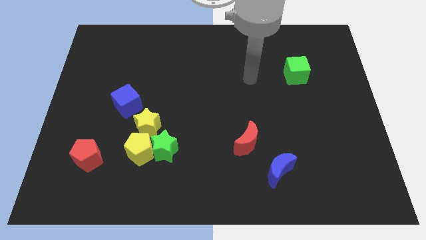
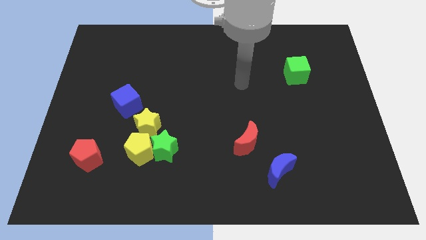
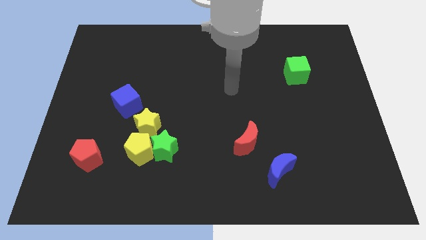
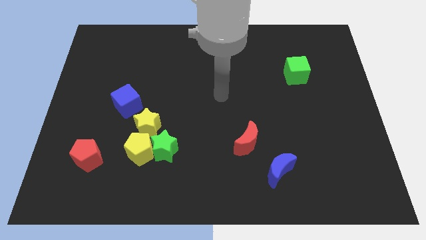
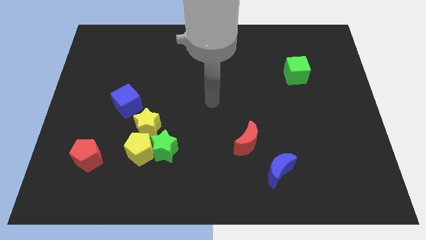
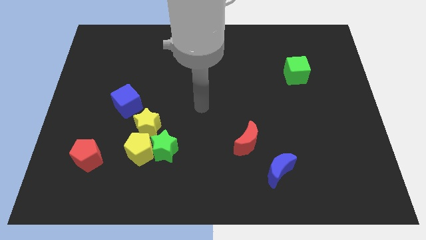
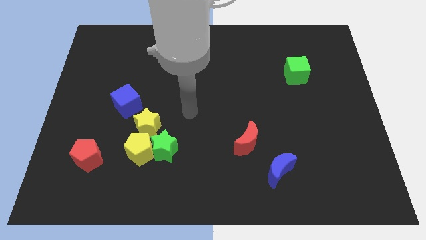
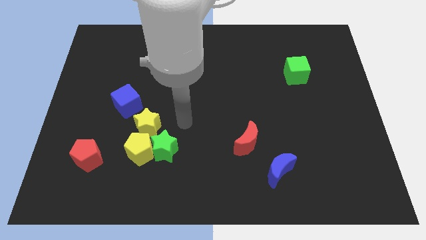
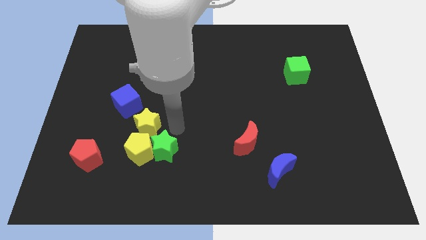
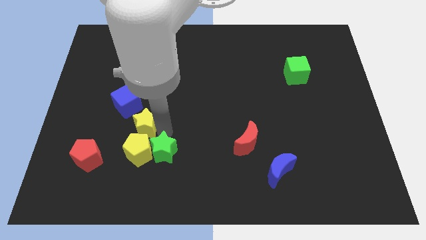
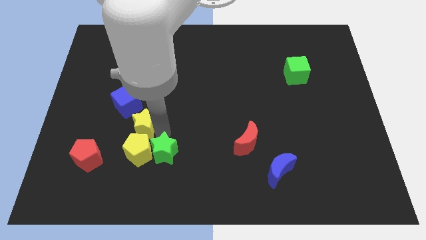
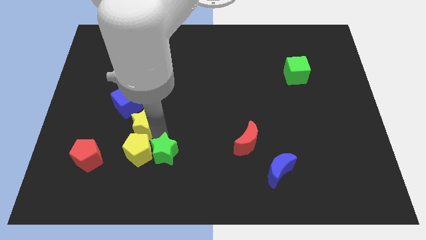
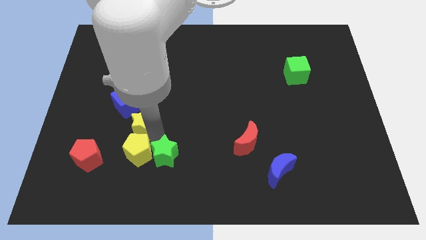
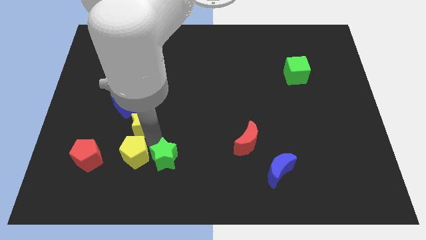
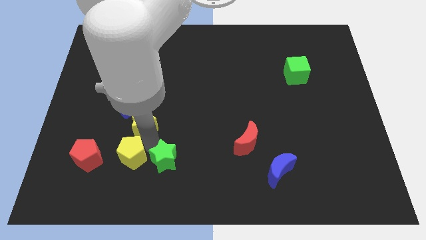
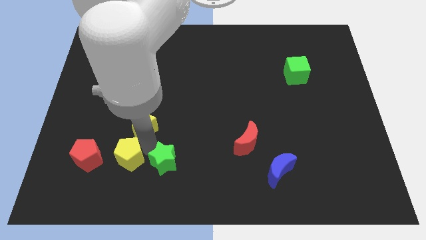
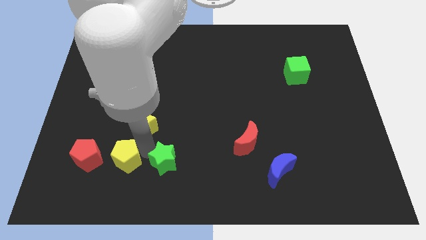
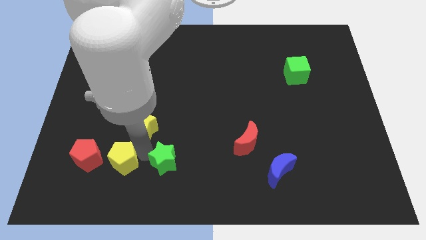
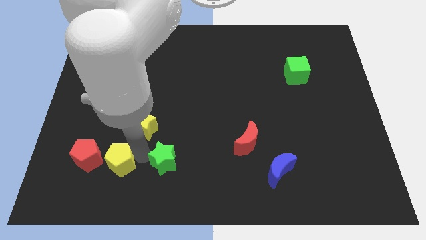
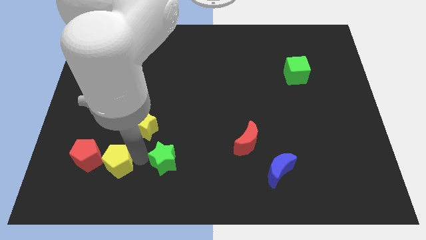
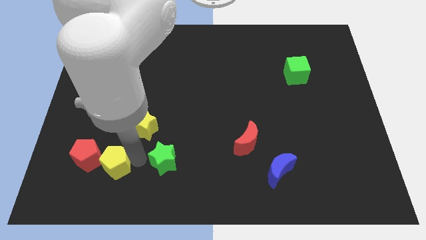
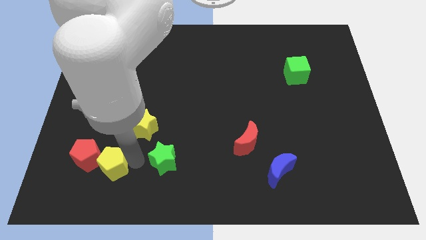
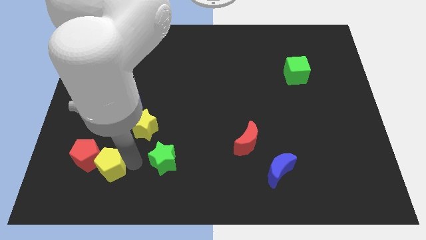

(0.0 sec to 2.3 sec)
pull the yellow pentagon apart from the green star and yellow star

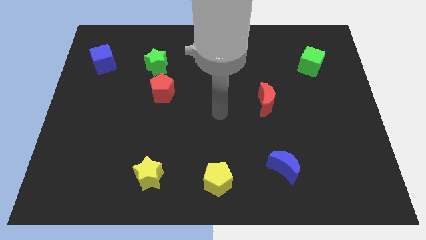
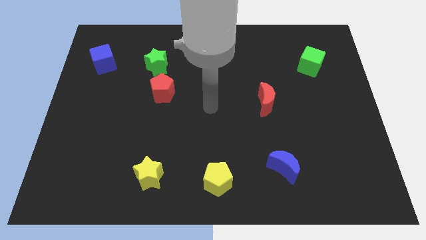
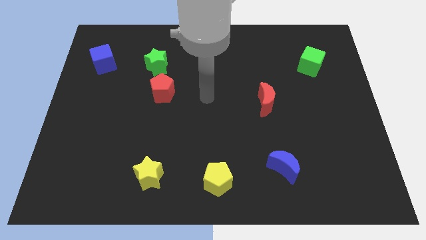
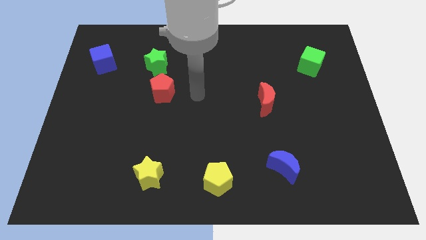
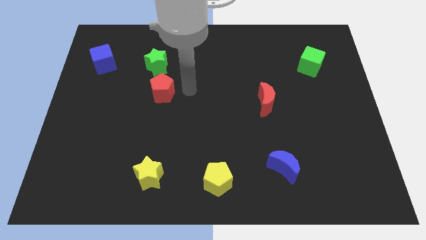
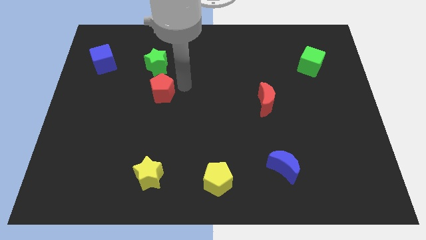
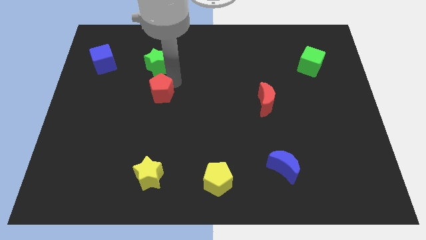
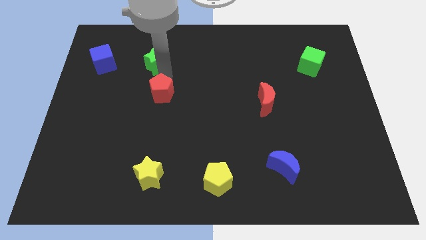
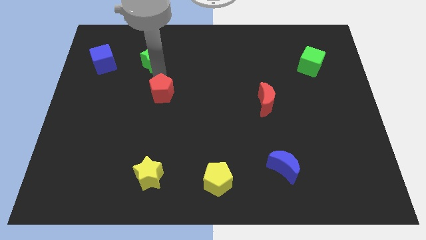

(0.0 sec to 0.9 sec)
move the red pentagon away from the green star

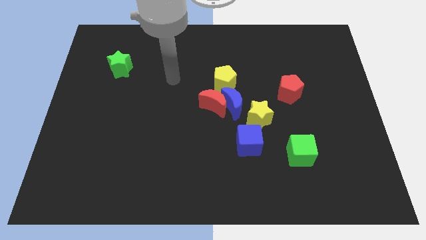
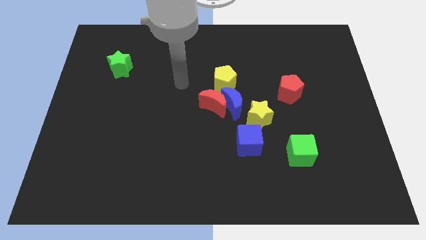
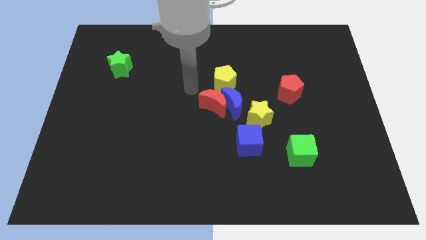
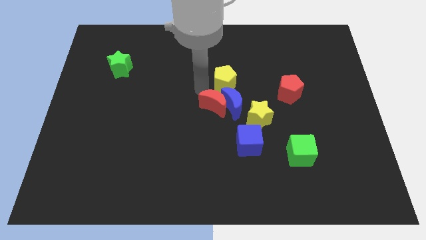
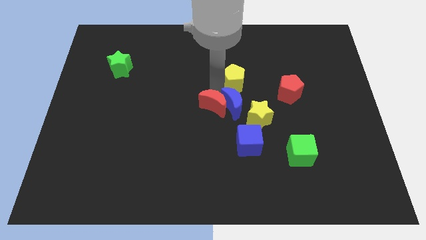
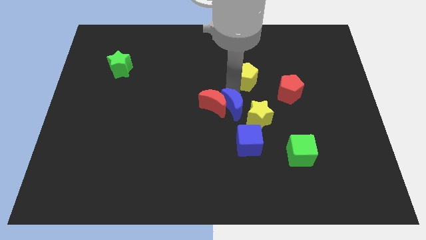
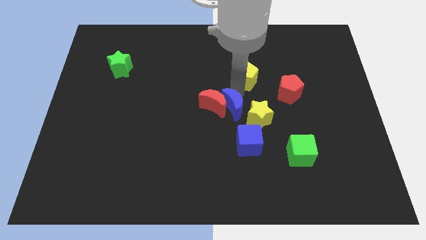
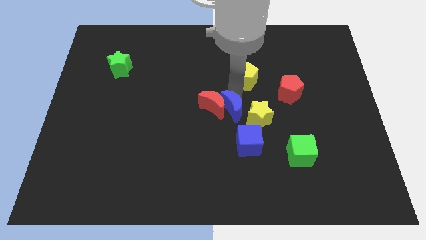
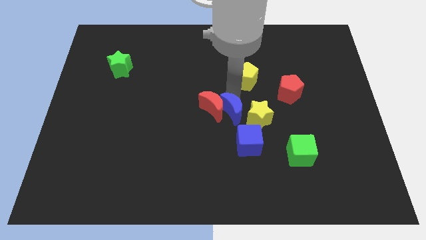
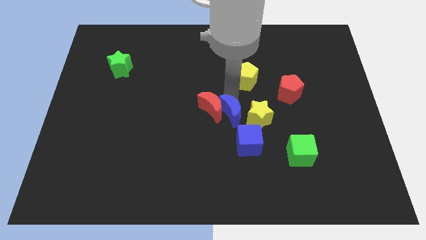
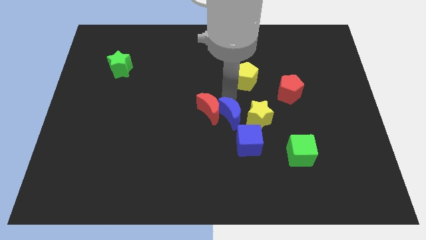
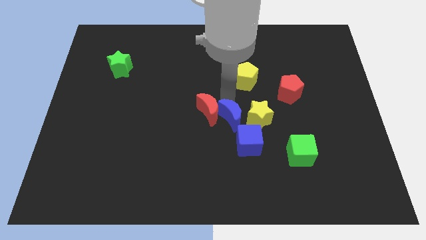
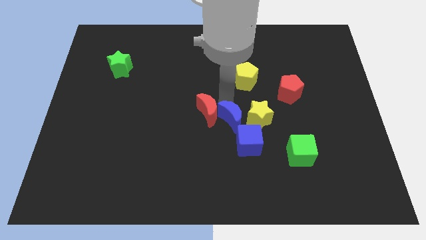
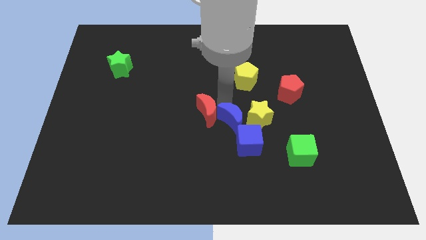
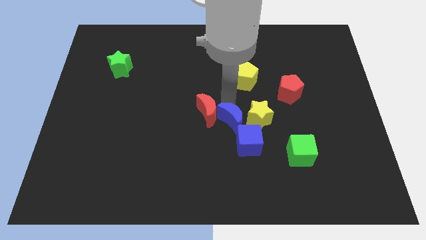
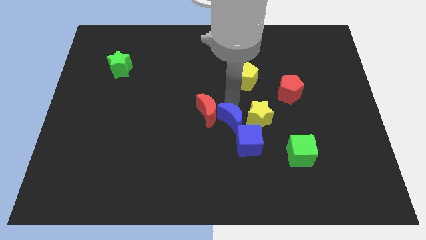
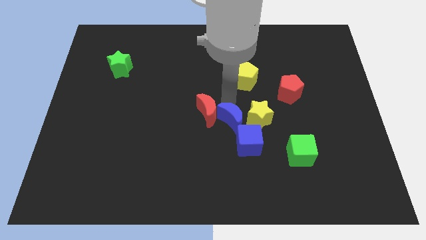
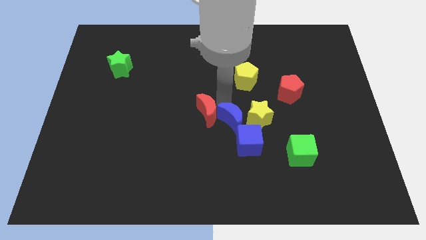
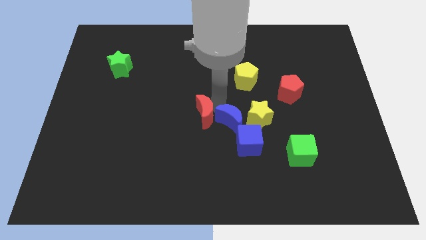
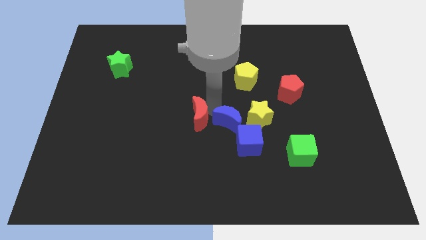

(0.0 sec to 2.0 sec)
separate the red moon from the blue moon and yellow pentagon

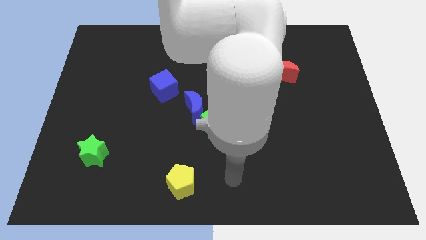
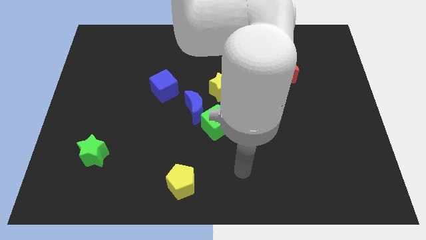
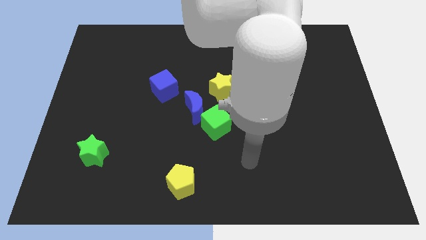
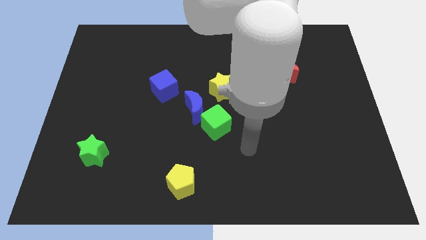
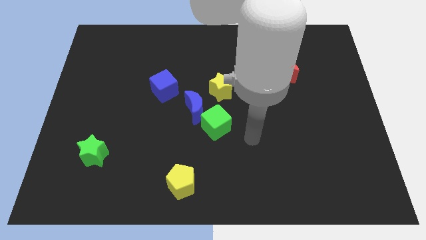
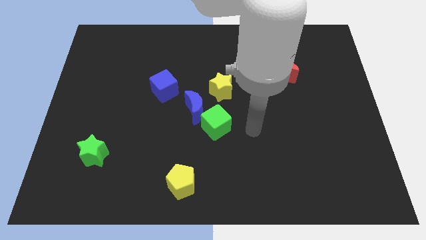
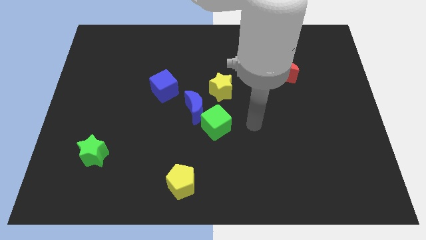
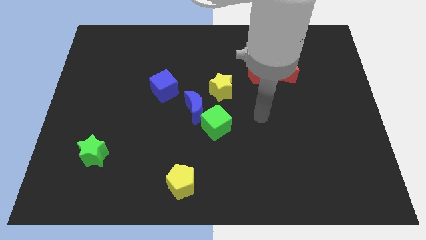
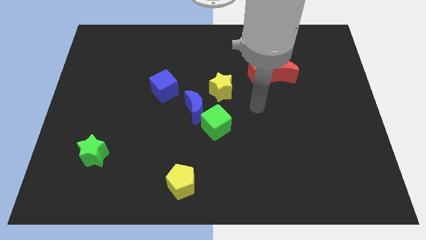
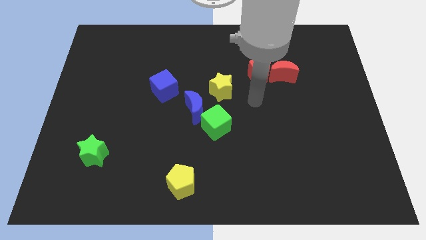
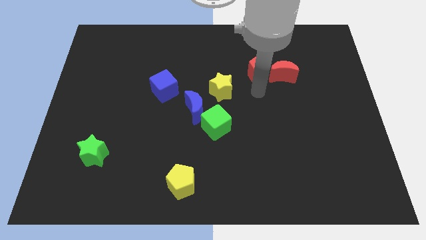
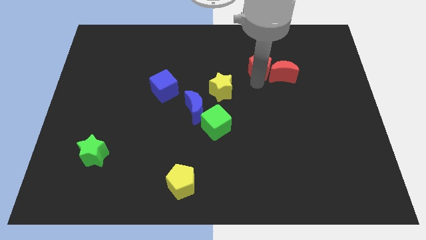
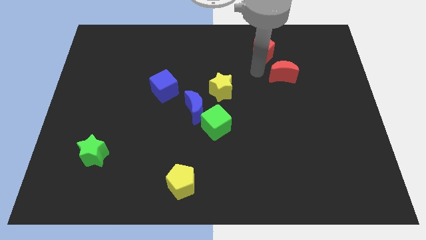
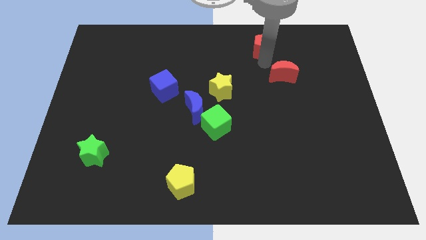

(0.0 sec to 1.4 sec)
pull the red moon apart from the red pentagon

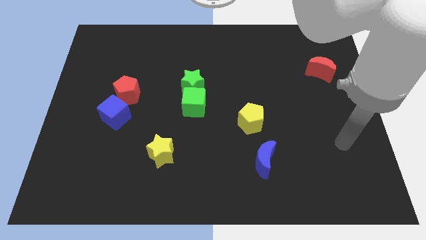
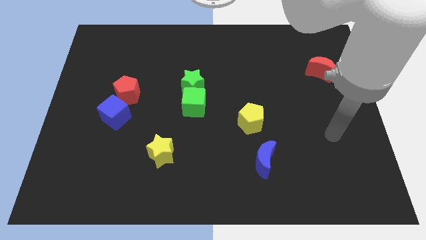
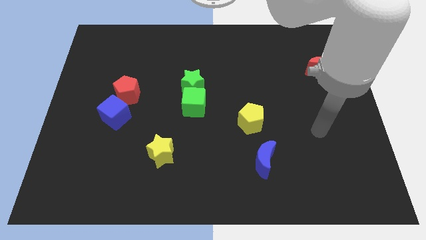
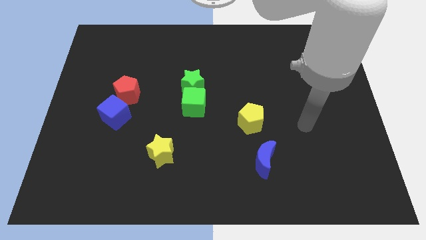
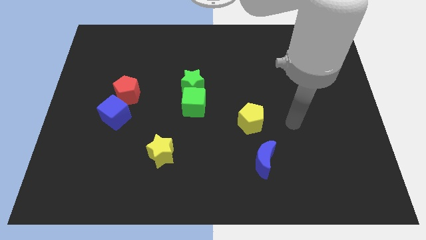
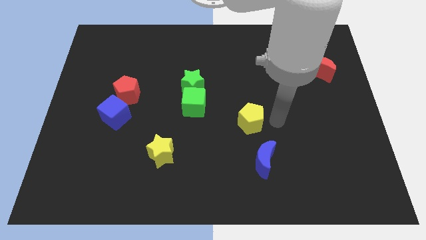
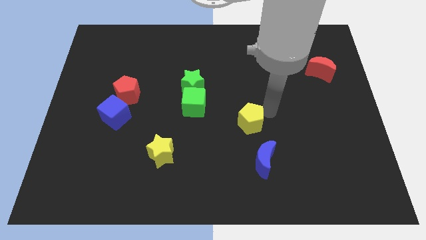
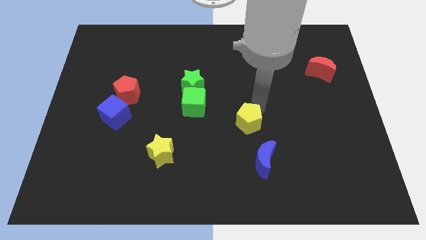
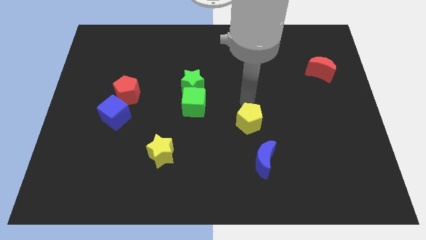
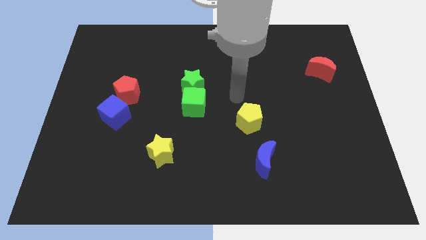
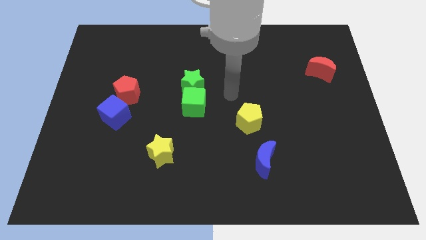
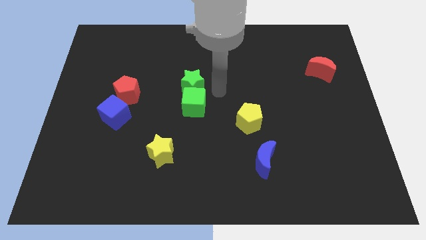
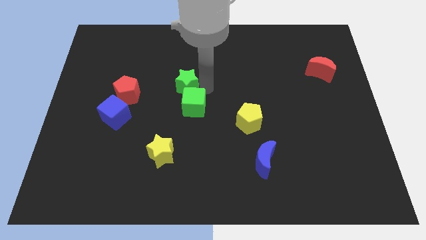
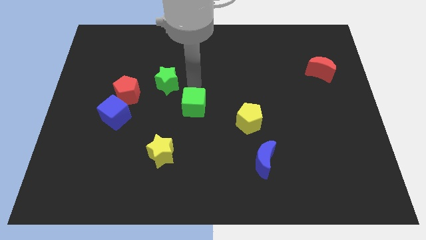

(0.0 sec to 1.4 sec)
move the green cube away from the green star

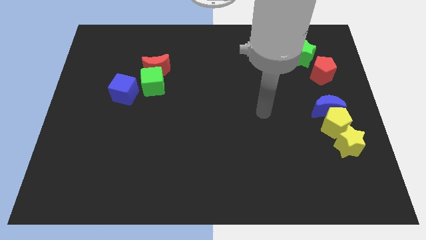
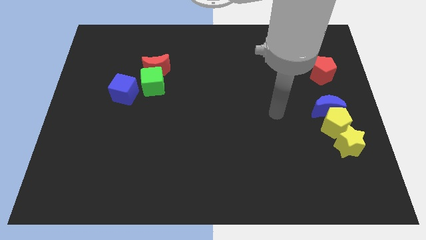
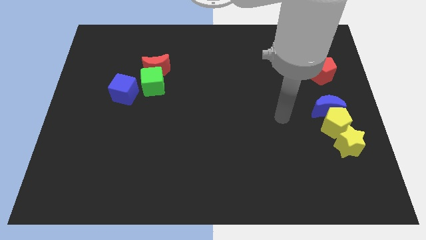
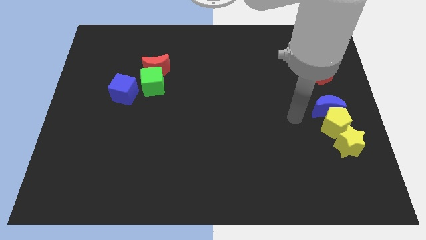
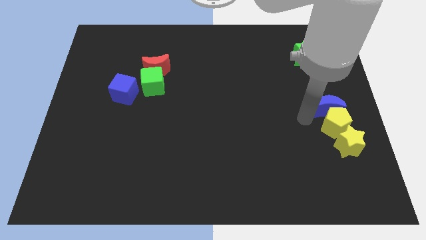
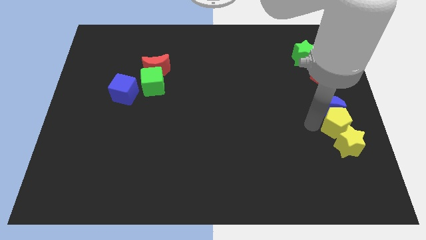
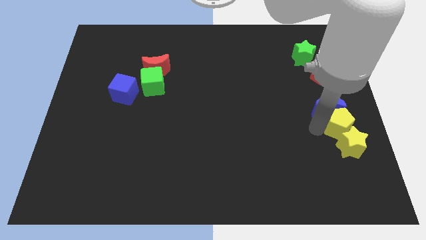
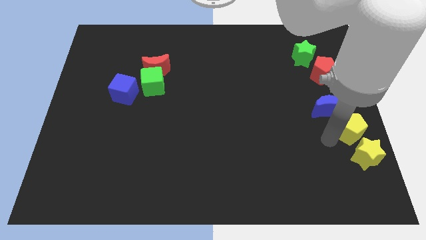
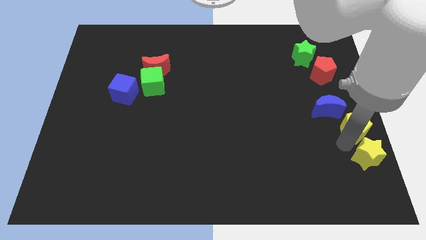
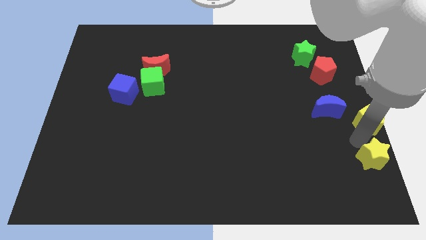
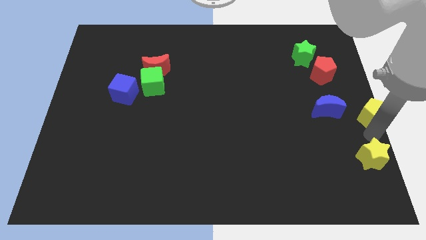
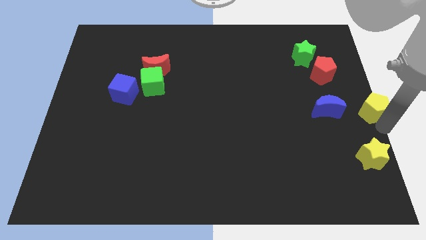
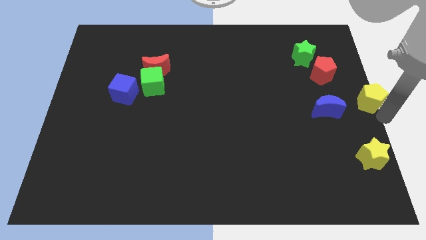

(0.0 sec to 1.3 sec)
move the yellow pentagon away from the blue moon and yellow star

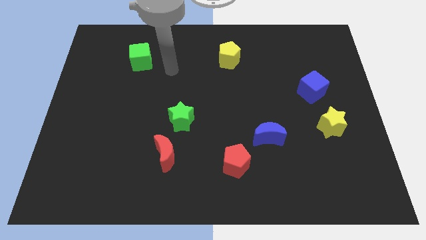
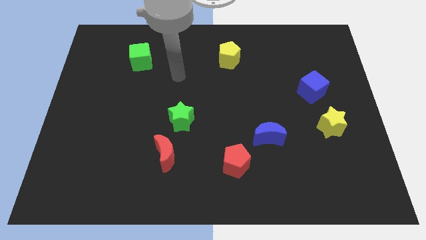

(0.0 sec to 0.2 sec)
pull the red moon apart from the green star
